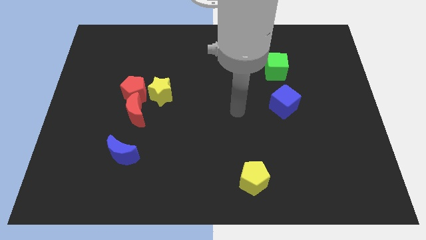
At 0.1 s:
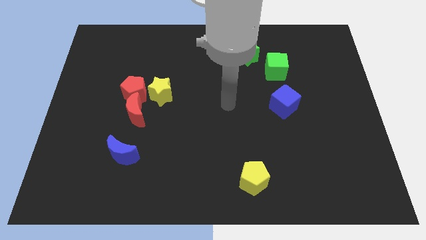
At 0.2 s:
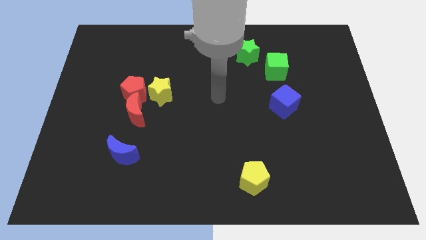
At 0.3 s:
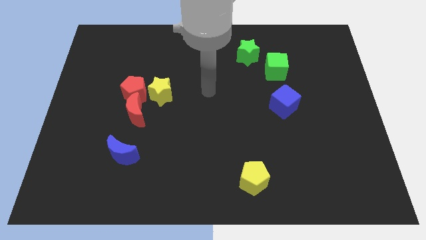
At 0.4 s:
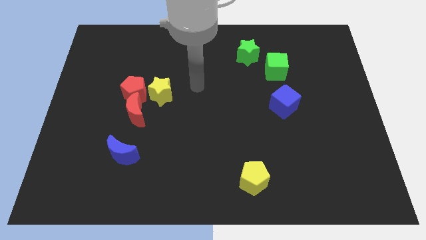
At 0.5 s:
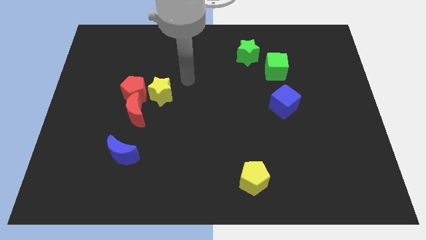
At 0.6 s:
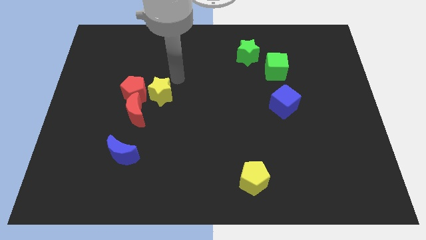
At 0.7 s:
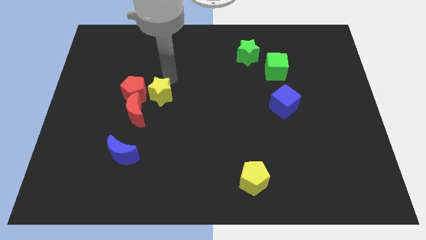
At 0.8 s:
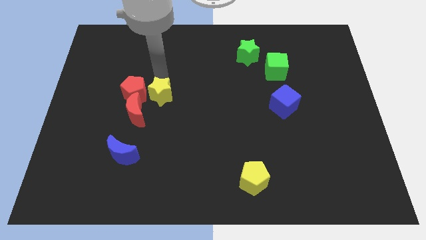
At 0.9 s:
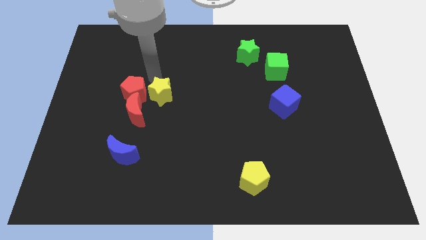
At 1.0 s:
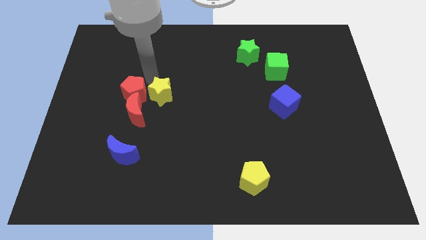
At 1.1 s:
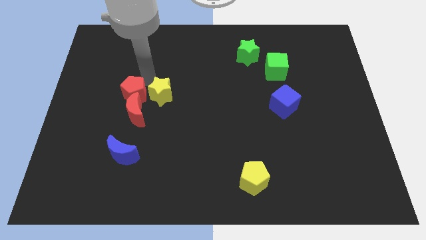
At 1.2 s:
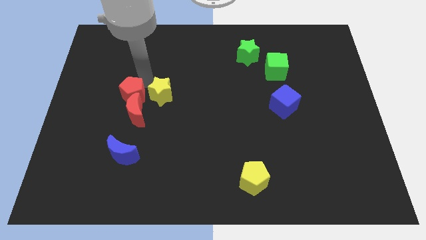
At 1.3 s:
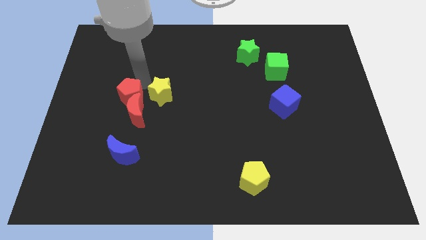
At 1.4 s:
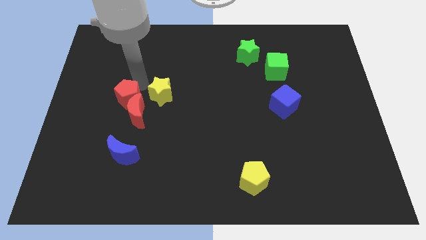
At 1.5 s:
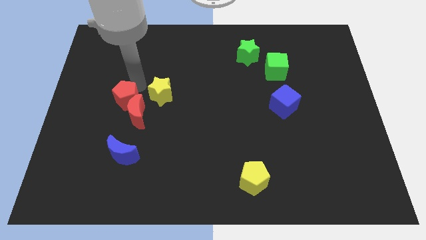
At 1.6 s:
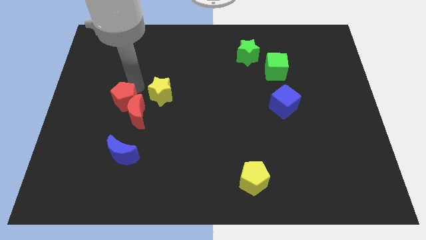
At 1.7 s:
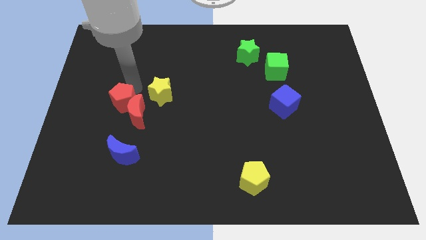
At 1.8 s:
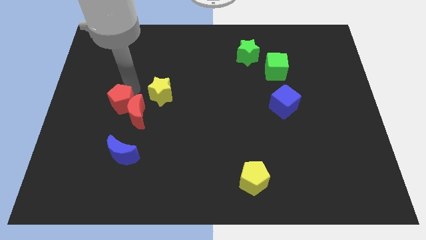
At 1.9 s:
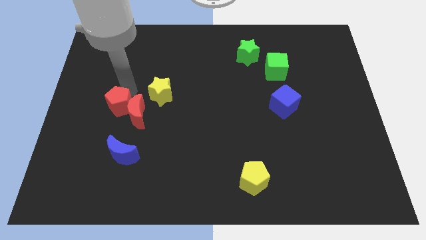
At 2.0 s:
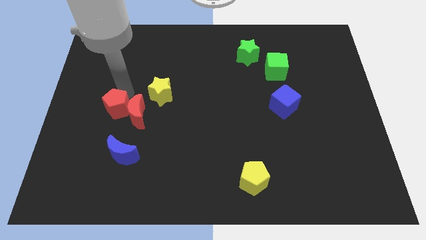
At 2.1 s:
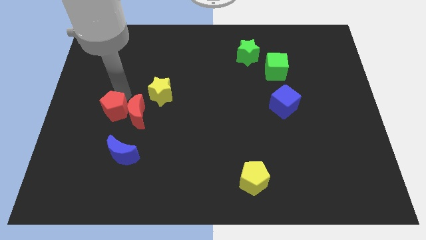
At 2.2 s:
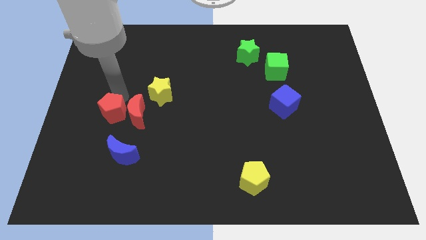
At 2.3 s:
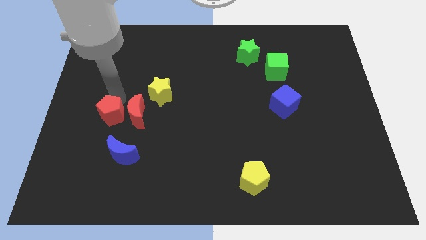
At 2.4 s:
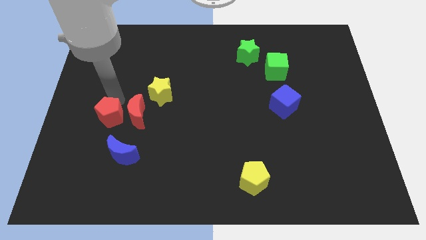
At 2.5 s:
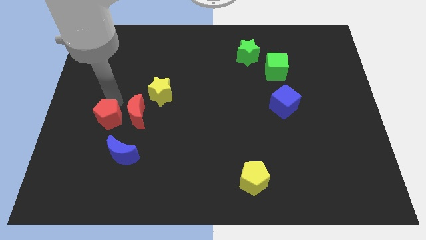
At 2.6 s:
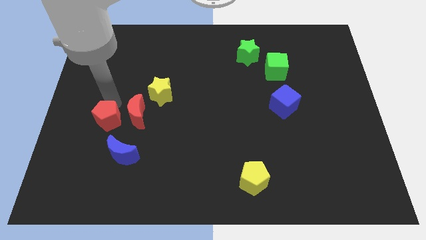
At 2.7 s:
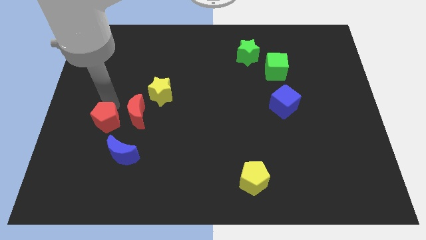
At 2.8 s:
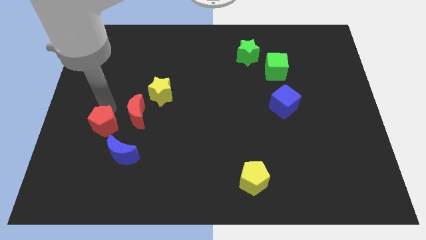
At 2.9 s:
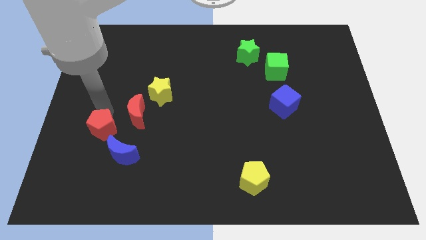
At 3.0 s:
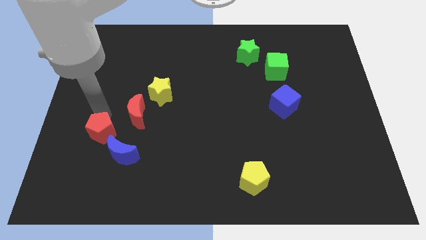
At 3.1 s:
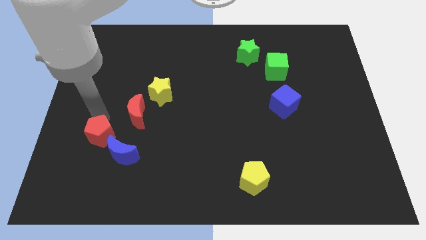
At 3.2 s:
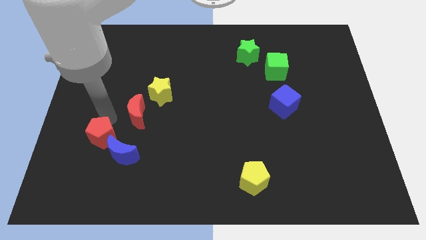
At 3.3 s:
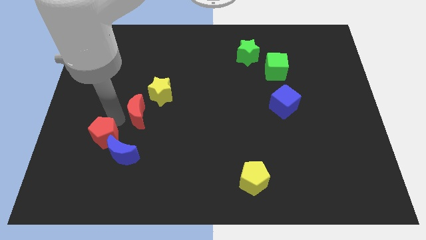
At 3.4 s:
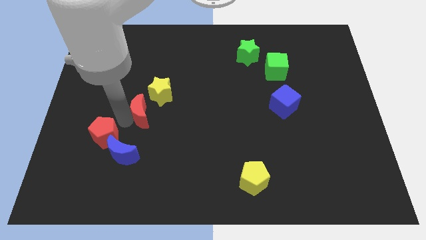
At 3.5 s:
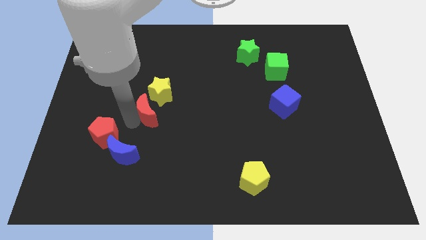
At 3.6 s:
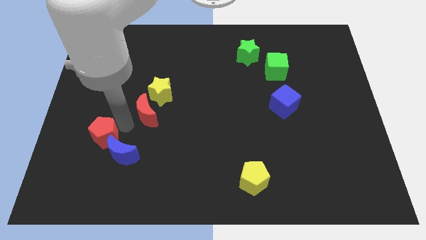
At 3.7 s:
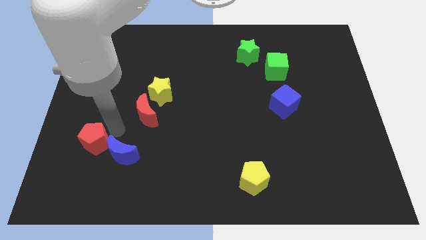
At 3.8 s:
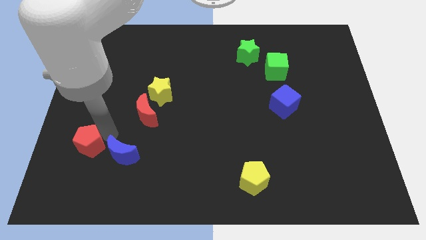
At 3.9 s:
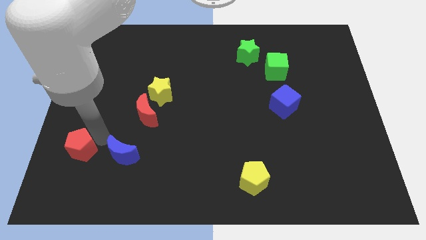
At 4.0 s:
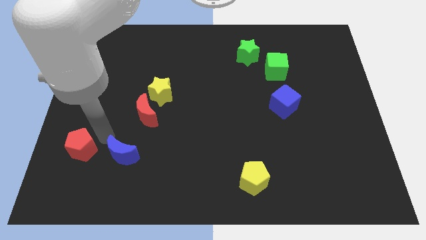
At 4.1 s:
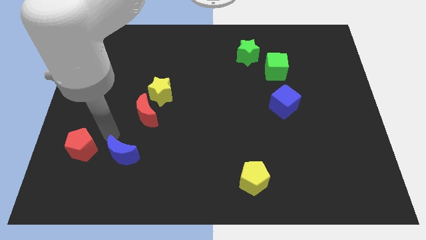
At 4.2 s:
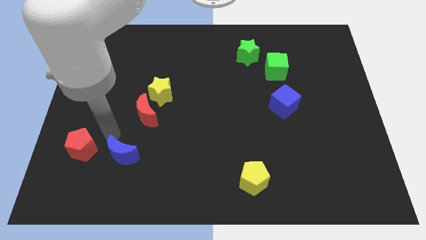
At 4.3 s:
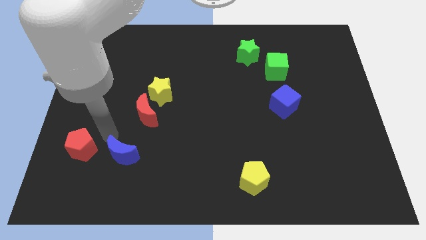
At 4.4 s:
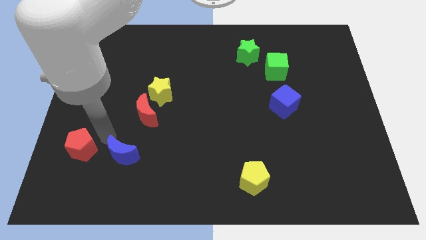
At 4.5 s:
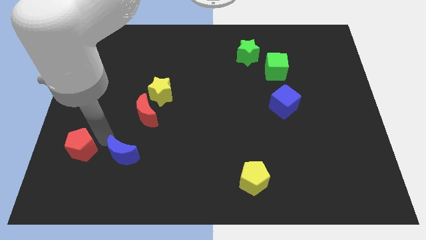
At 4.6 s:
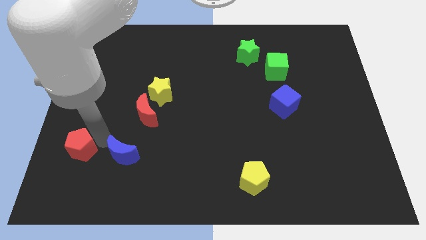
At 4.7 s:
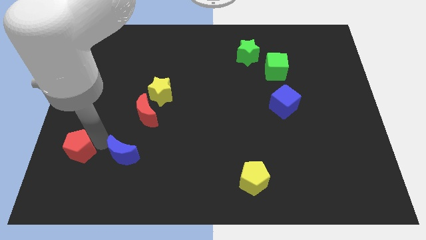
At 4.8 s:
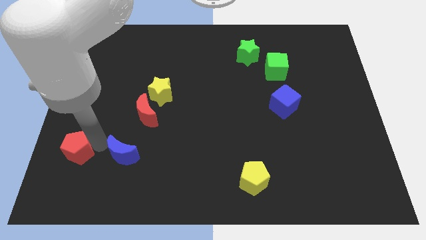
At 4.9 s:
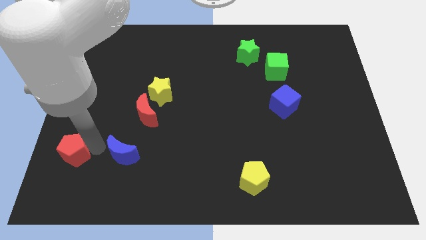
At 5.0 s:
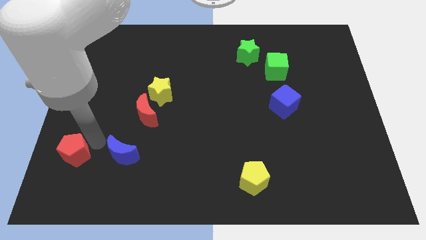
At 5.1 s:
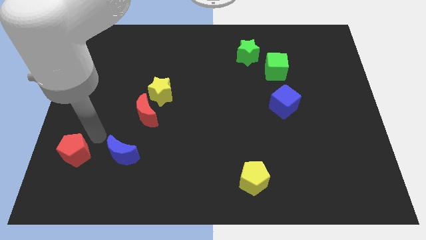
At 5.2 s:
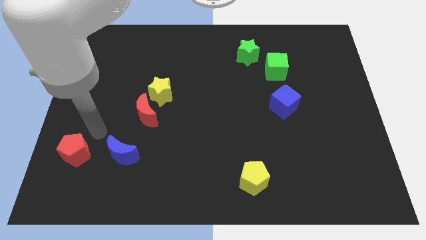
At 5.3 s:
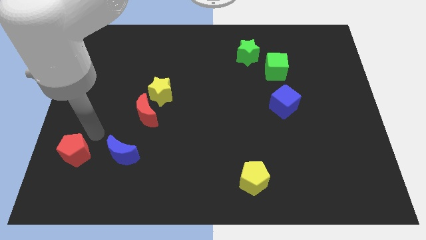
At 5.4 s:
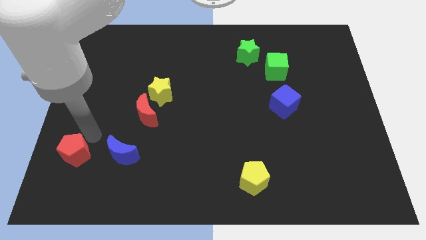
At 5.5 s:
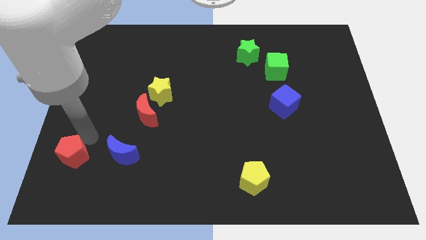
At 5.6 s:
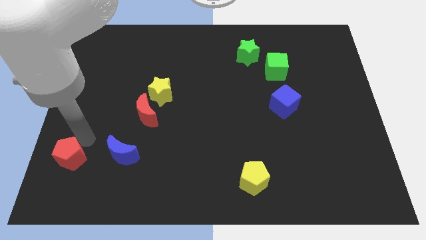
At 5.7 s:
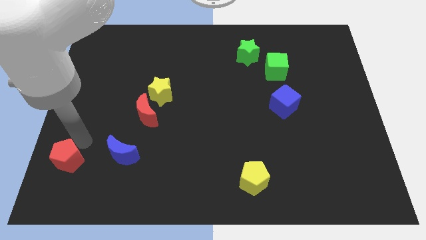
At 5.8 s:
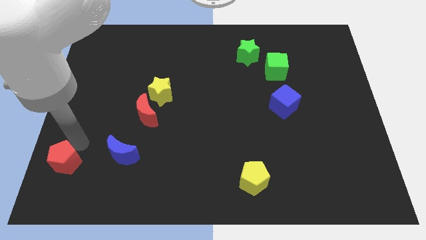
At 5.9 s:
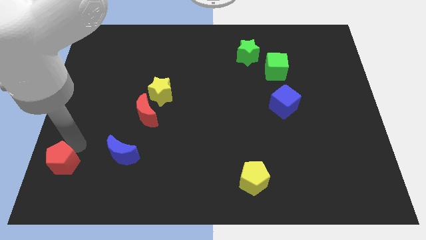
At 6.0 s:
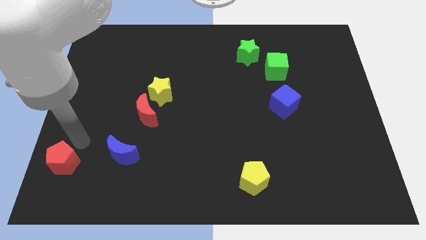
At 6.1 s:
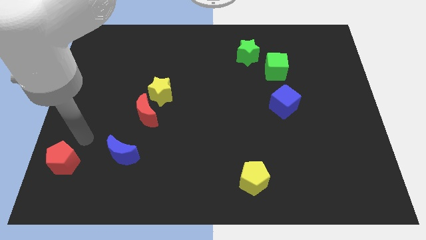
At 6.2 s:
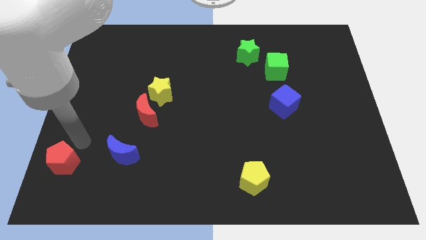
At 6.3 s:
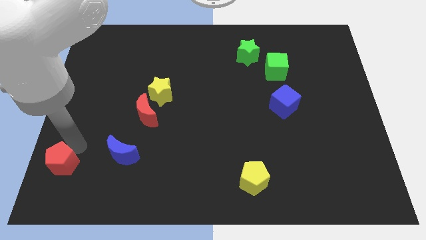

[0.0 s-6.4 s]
push the red pentagon to the bottom left corner

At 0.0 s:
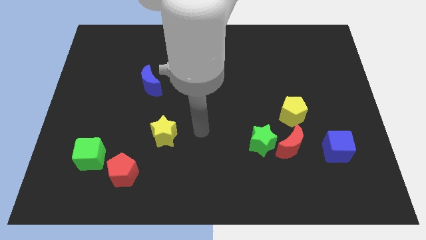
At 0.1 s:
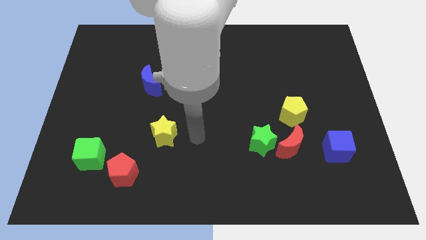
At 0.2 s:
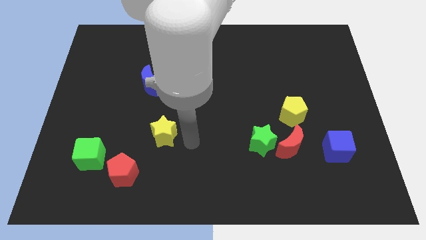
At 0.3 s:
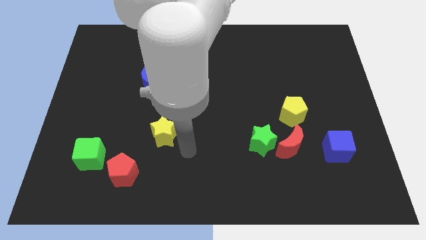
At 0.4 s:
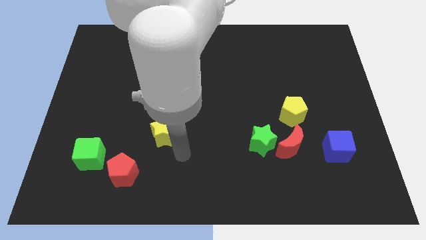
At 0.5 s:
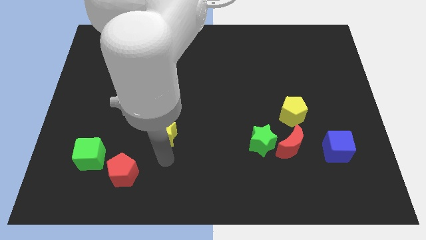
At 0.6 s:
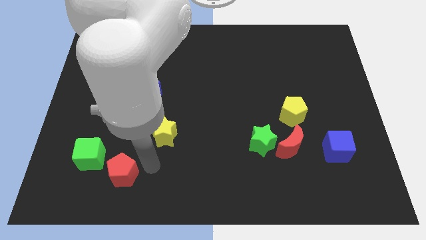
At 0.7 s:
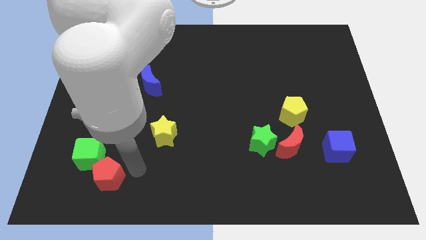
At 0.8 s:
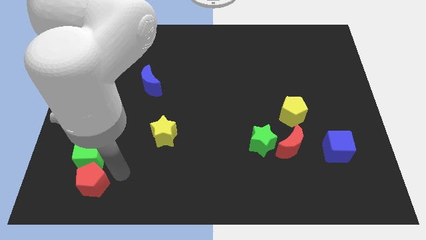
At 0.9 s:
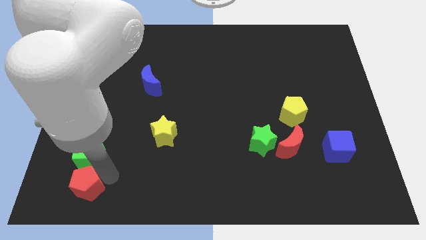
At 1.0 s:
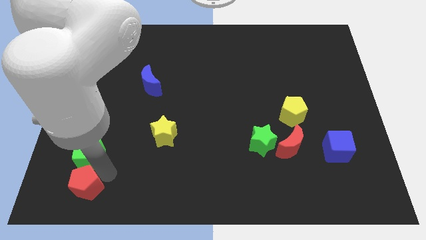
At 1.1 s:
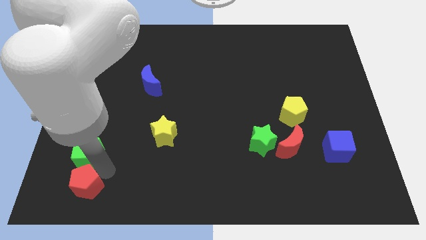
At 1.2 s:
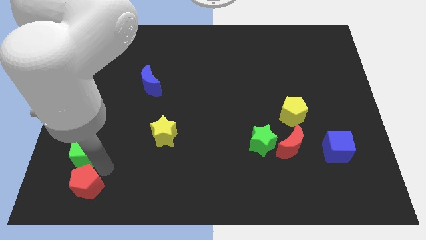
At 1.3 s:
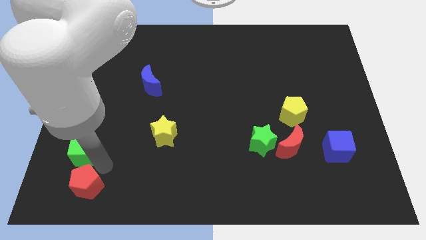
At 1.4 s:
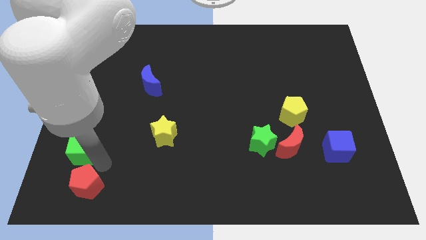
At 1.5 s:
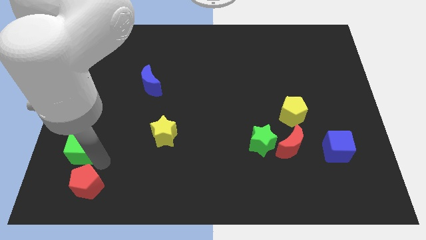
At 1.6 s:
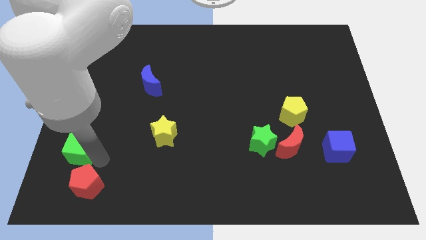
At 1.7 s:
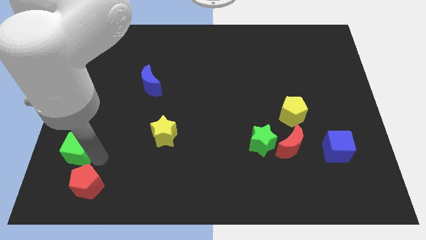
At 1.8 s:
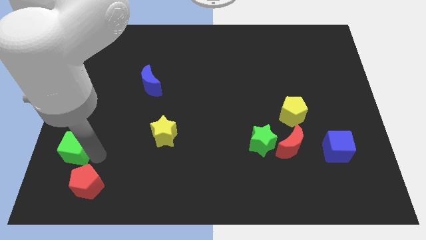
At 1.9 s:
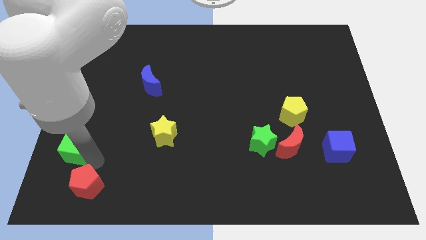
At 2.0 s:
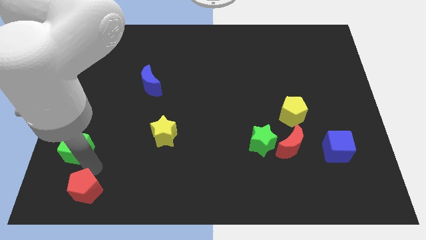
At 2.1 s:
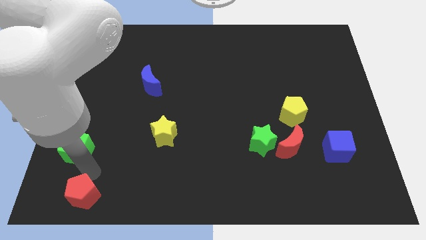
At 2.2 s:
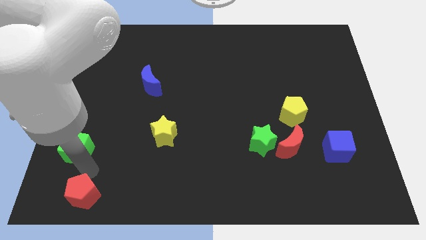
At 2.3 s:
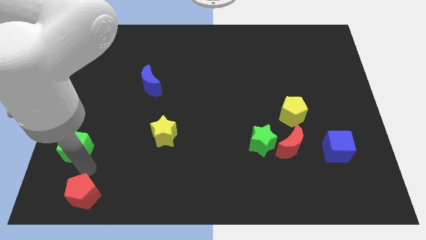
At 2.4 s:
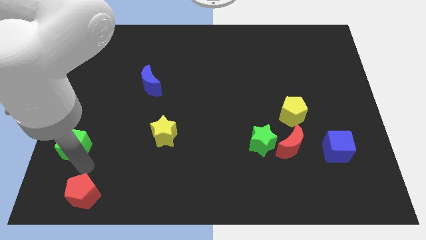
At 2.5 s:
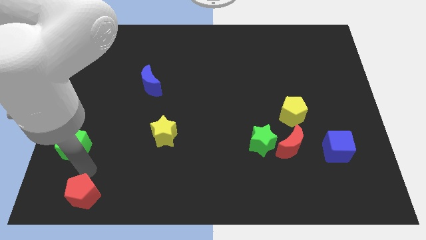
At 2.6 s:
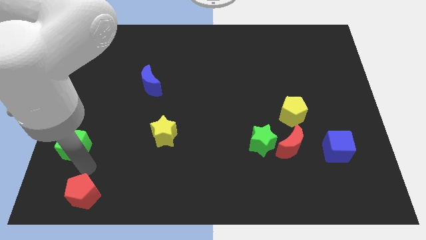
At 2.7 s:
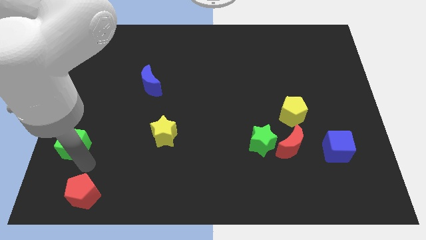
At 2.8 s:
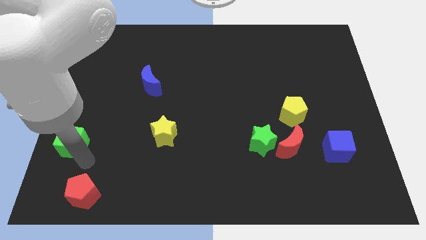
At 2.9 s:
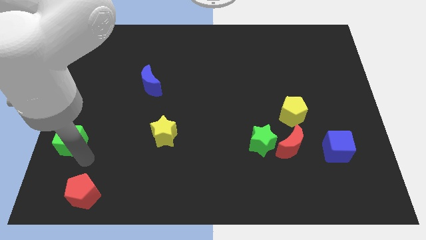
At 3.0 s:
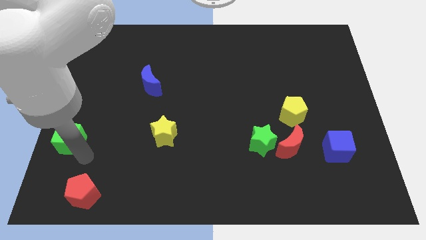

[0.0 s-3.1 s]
move the green cube to the center left
